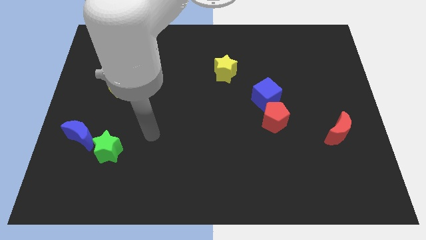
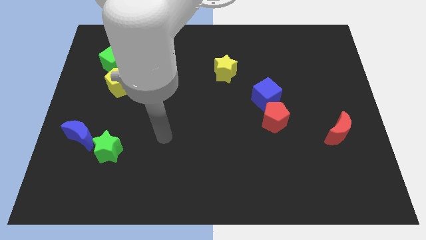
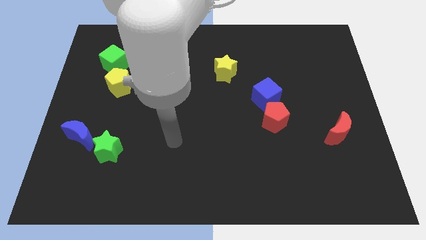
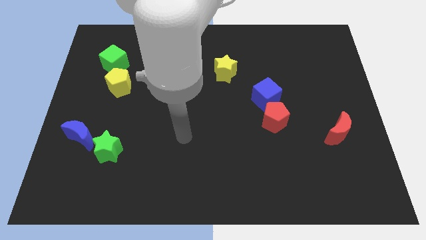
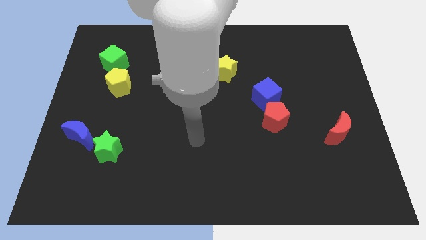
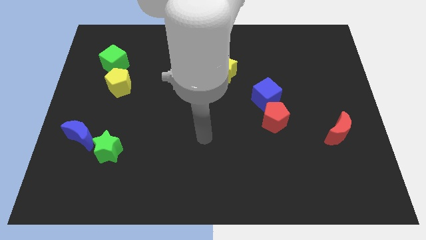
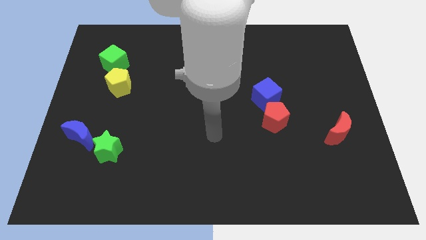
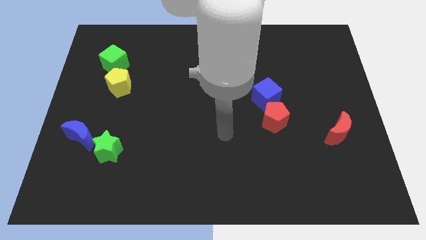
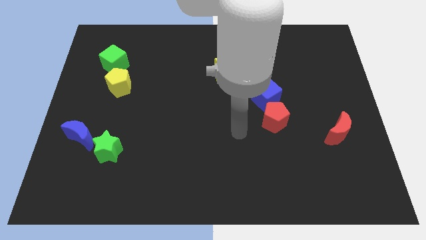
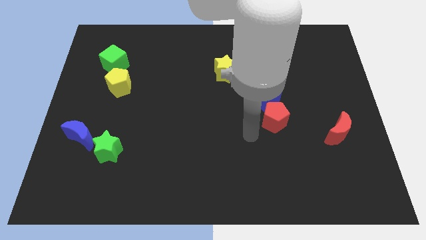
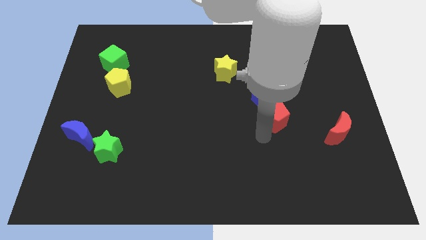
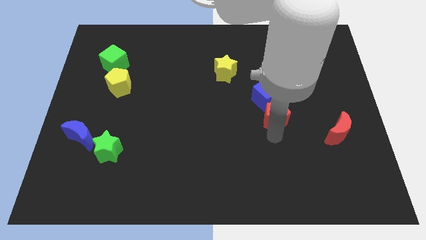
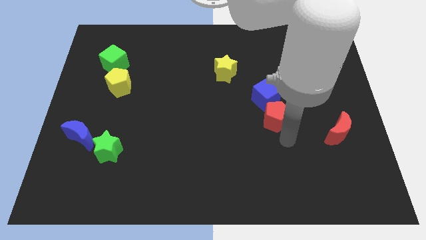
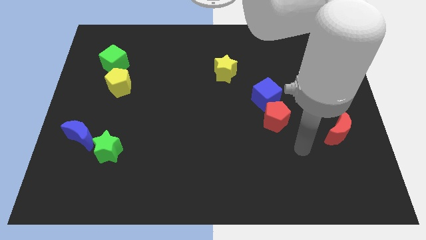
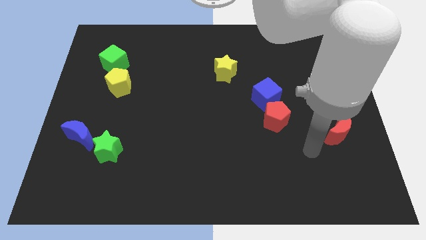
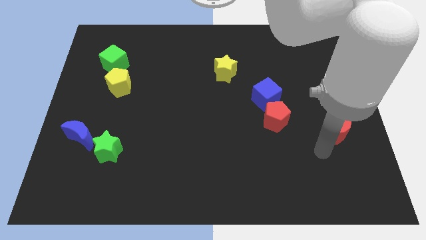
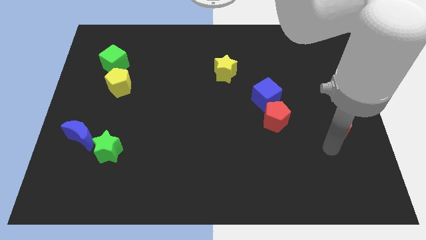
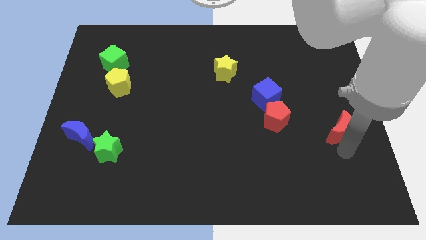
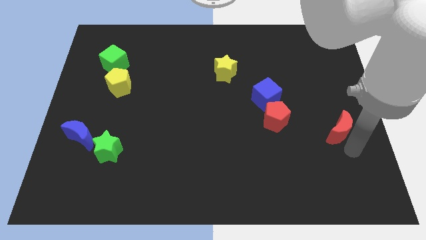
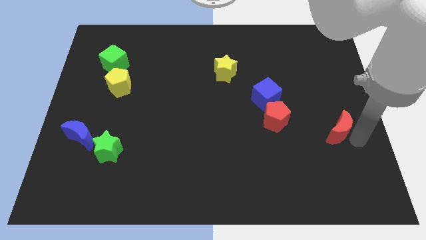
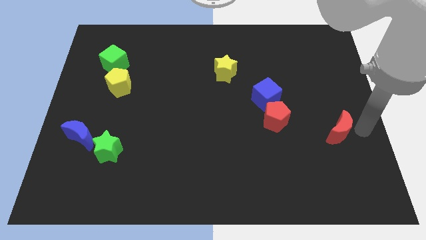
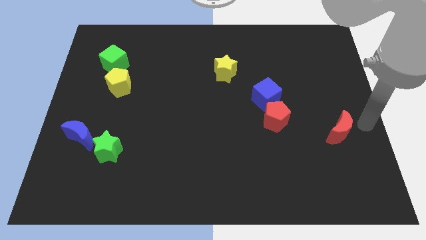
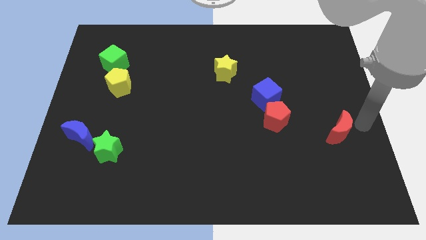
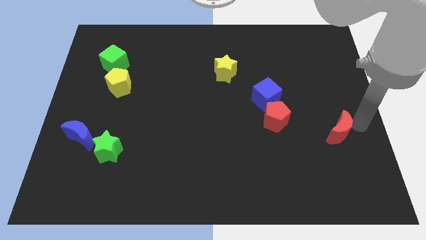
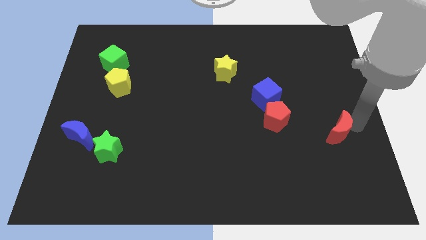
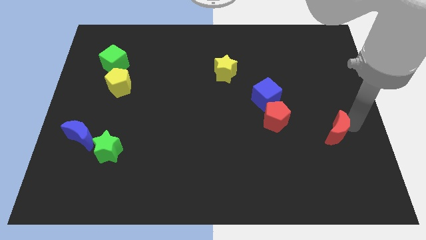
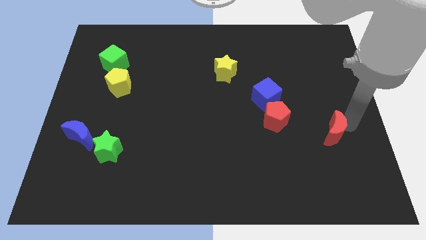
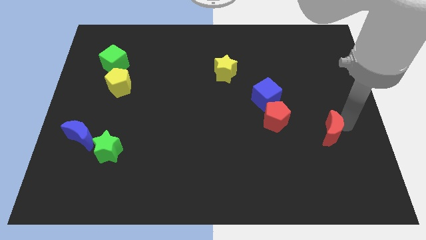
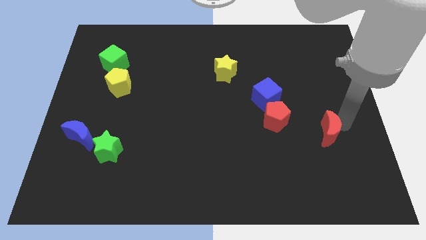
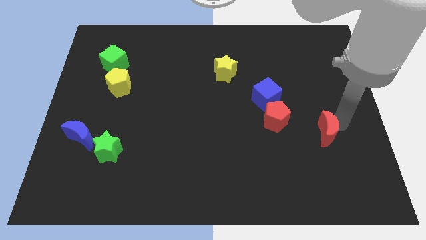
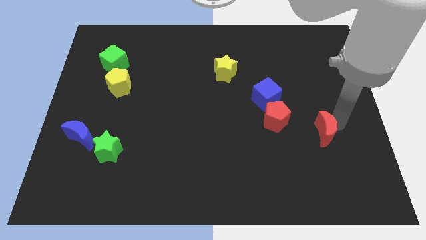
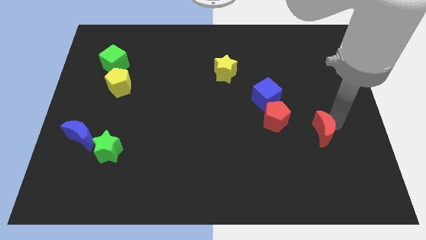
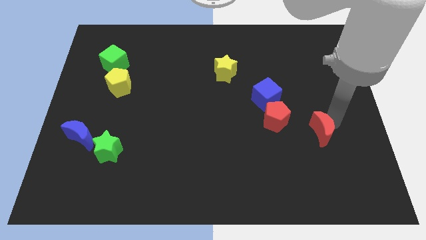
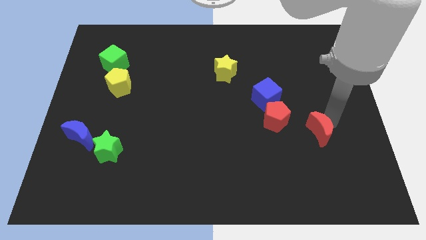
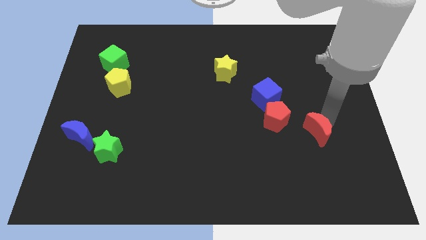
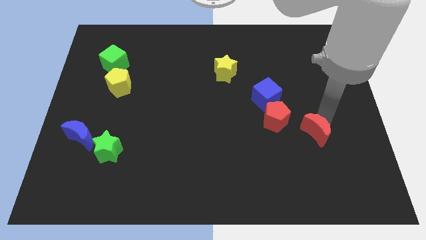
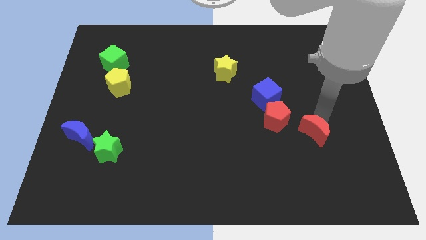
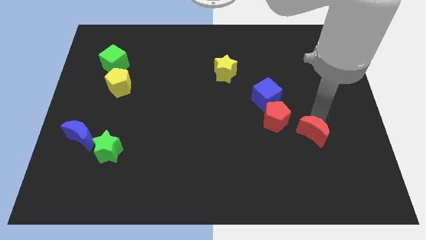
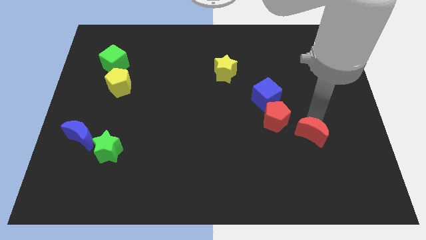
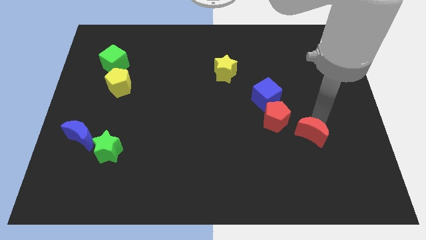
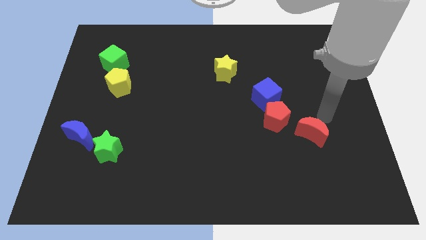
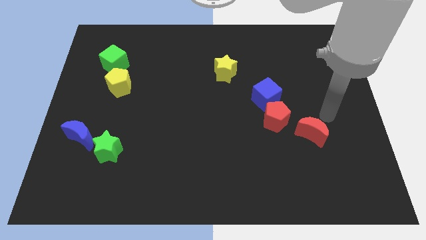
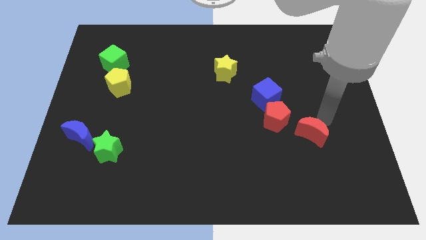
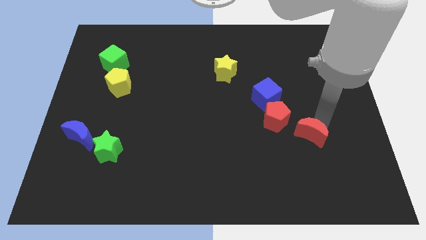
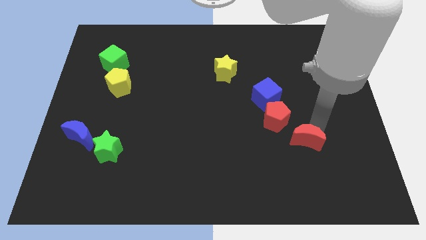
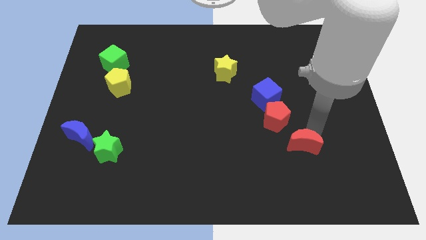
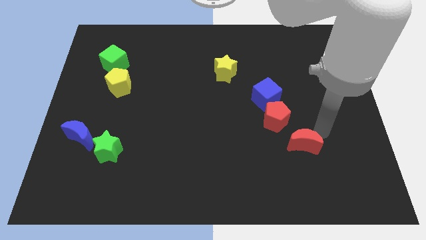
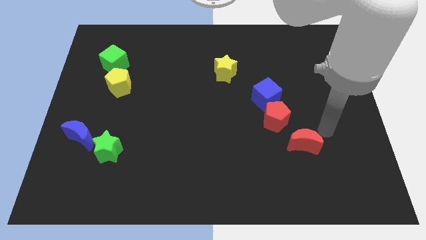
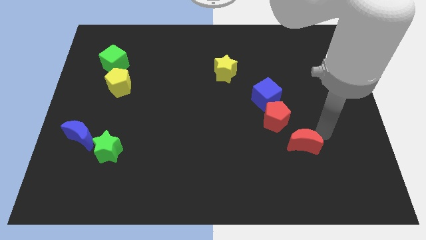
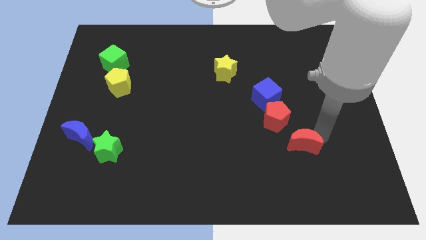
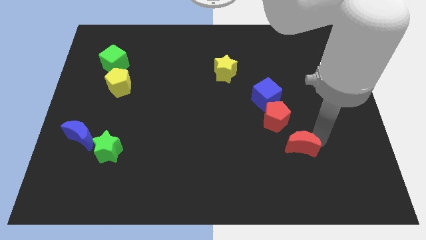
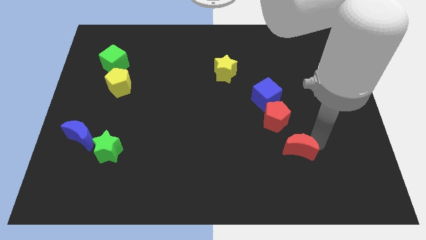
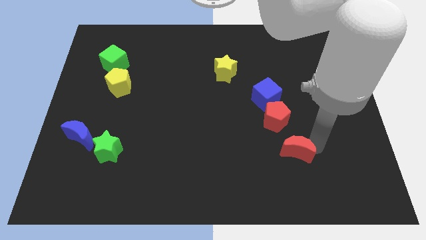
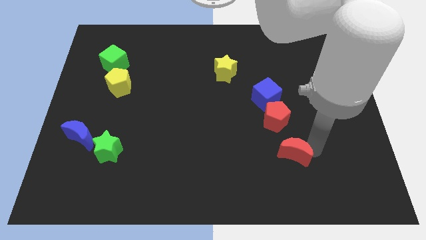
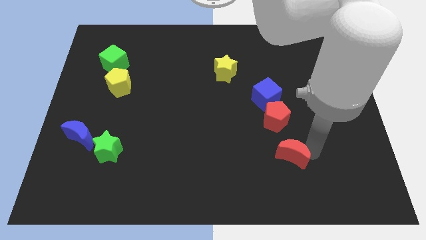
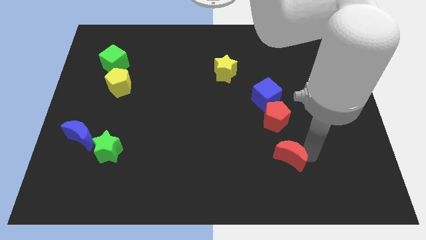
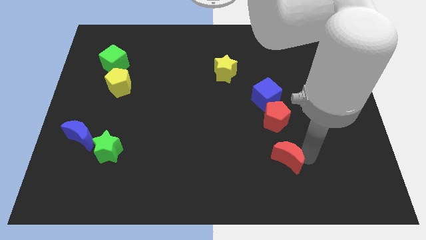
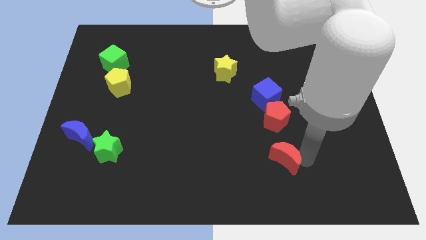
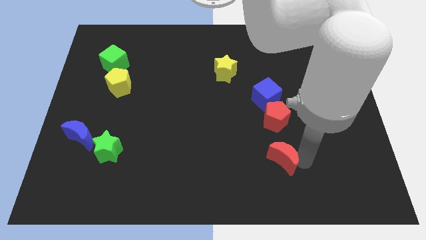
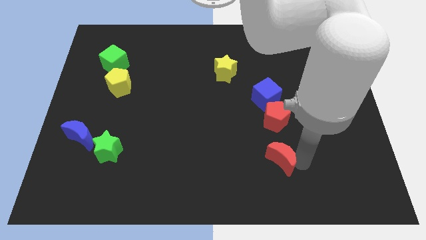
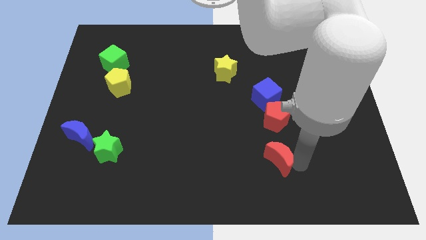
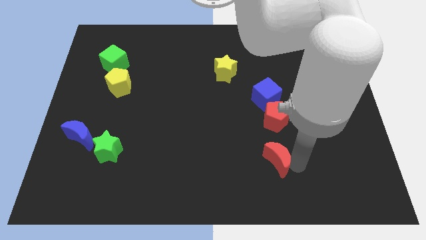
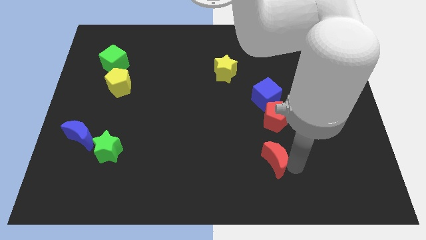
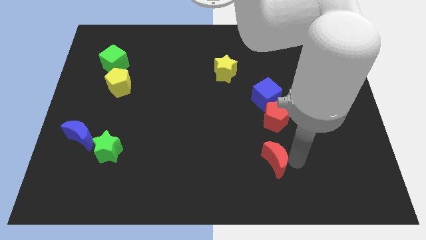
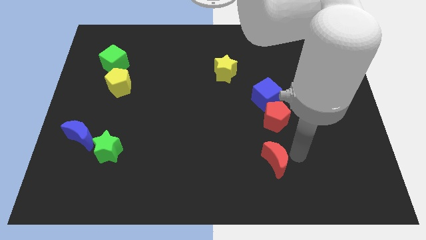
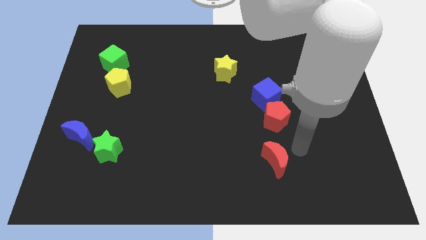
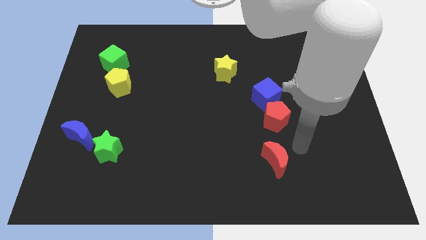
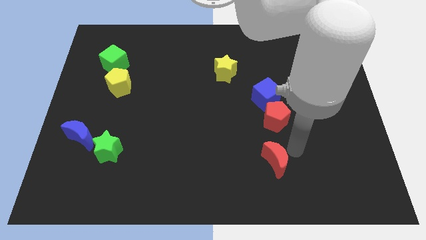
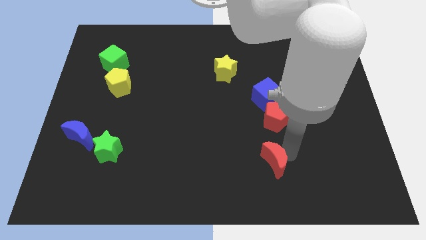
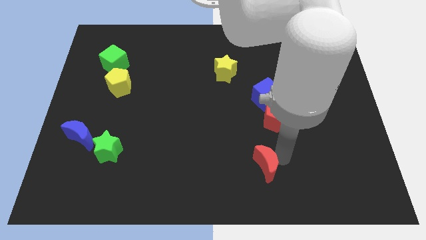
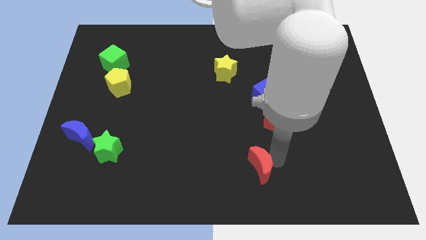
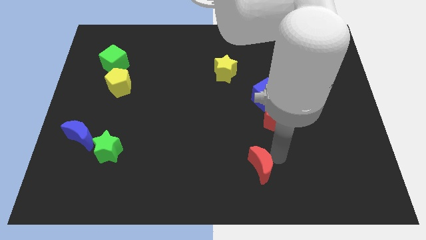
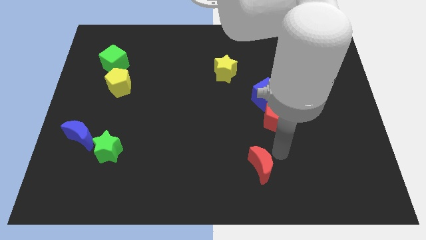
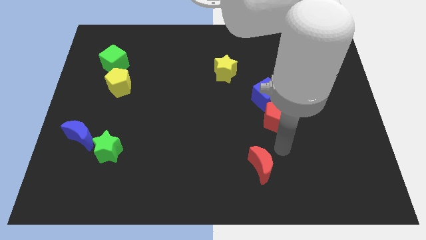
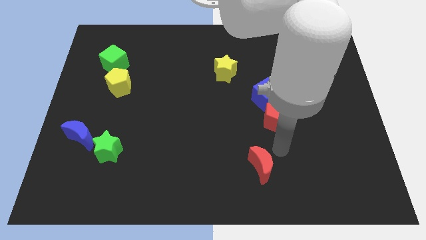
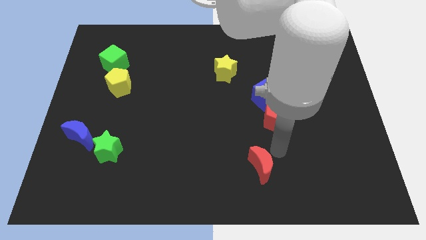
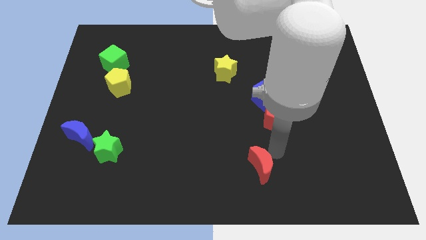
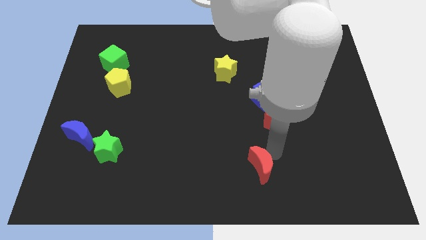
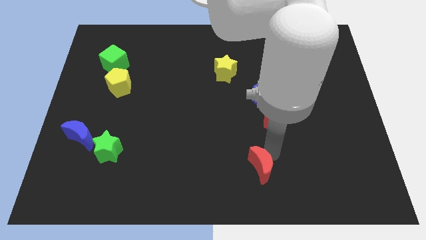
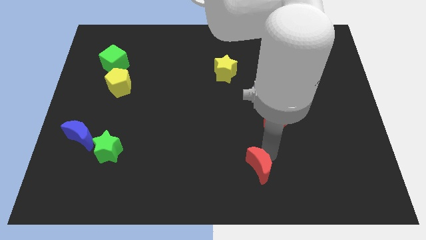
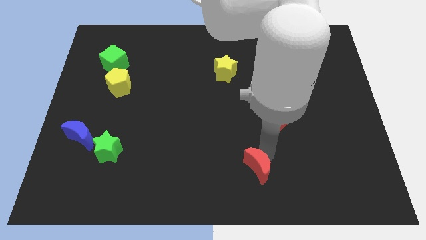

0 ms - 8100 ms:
move the red moon to the bottom side
